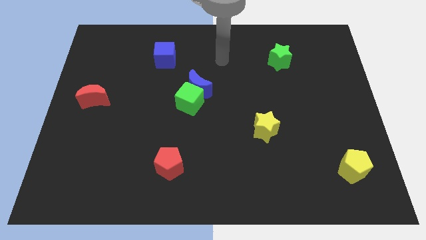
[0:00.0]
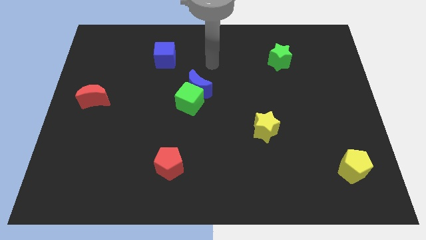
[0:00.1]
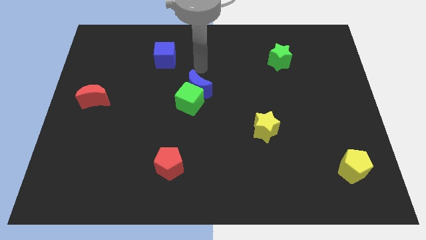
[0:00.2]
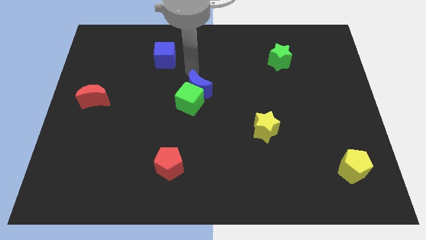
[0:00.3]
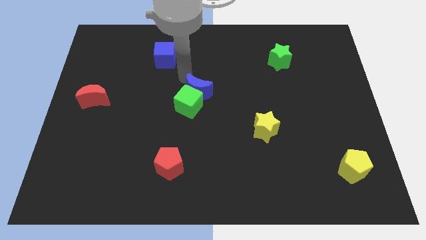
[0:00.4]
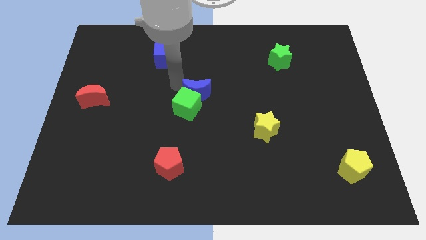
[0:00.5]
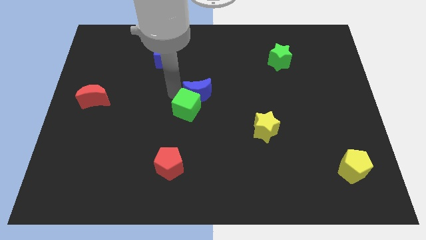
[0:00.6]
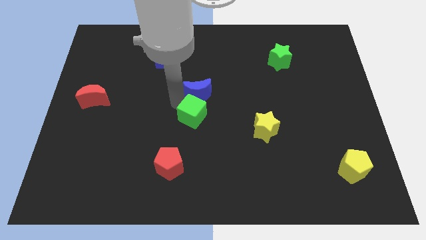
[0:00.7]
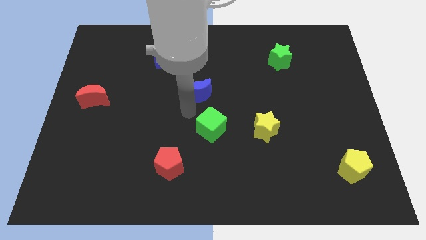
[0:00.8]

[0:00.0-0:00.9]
pull the blue moon apart from the green cube

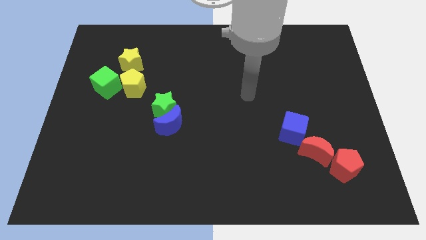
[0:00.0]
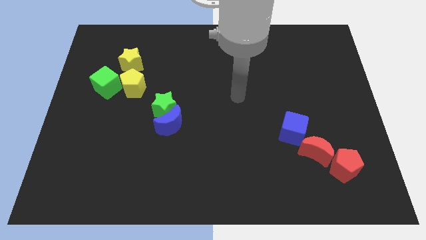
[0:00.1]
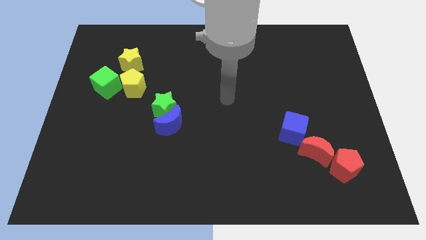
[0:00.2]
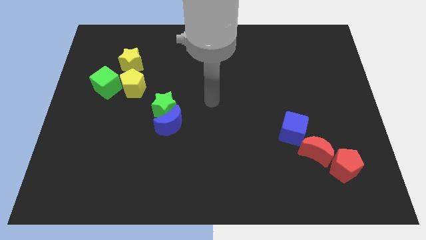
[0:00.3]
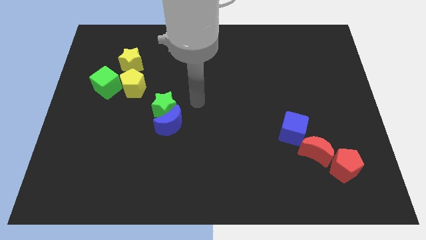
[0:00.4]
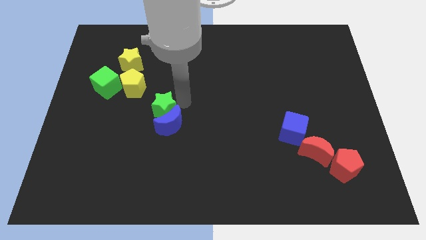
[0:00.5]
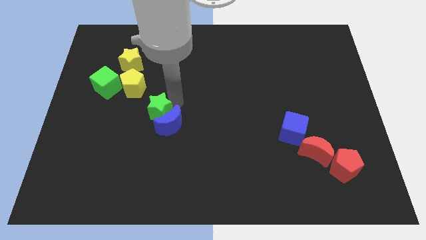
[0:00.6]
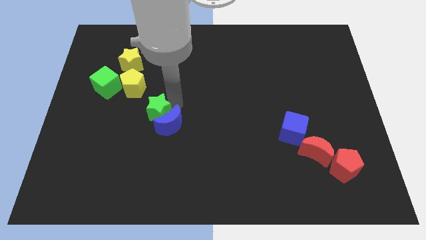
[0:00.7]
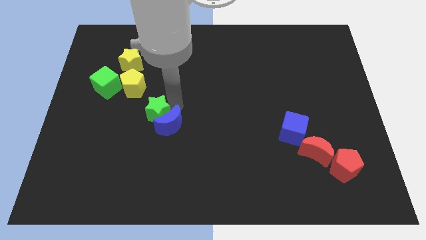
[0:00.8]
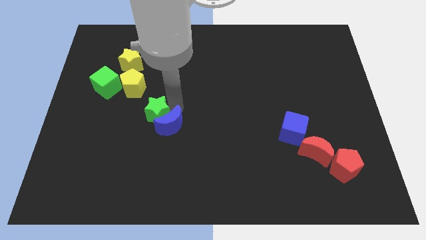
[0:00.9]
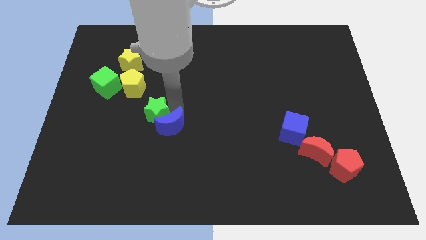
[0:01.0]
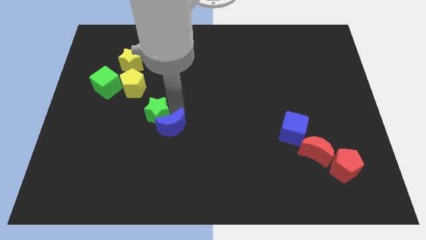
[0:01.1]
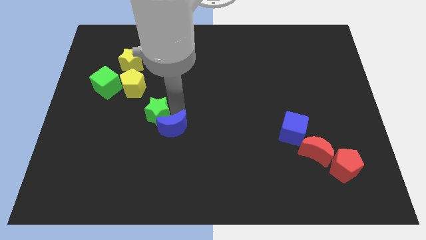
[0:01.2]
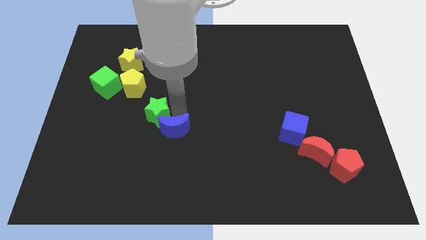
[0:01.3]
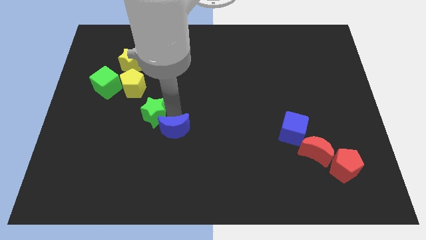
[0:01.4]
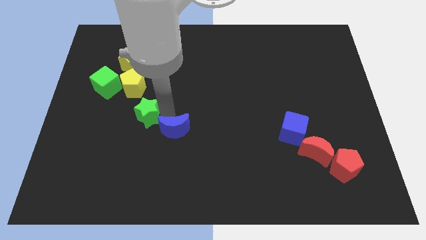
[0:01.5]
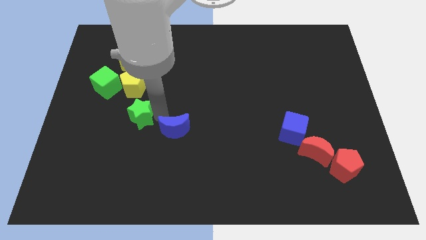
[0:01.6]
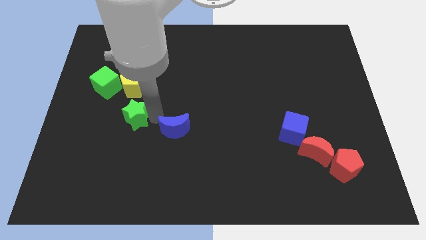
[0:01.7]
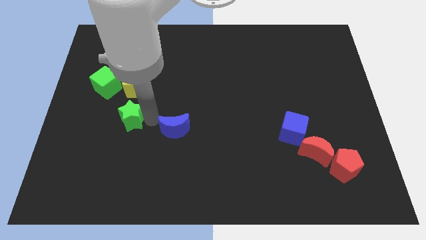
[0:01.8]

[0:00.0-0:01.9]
separate the blue moon from the green star

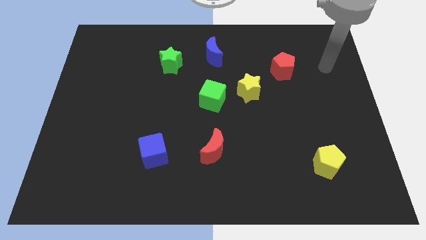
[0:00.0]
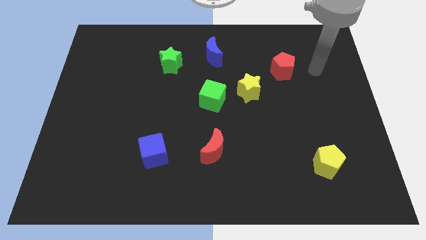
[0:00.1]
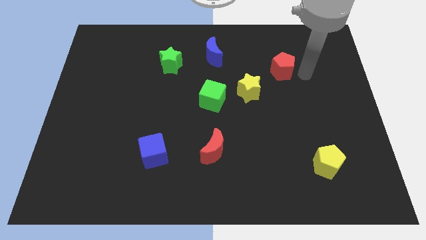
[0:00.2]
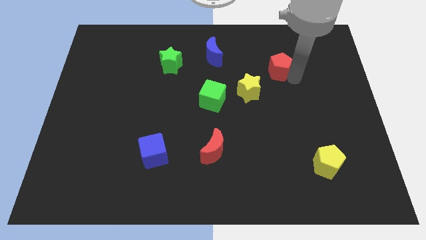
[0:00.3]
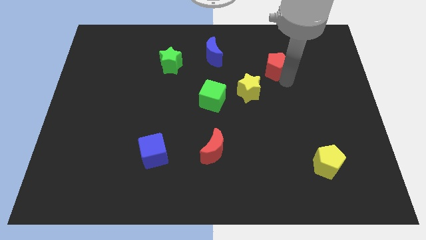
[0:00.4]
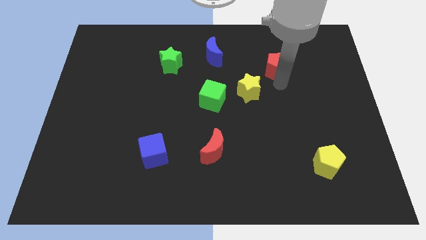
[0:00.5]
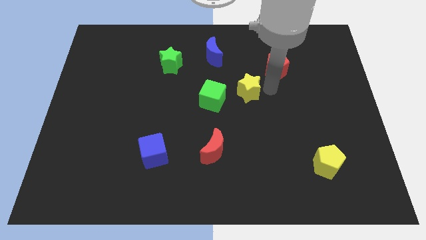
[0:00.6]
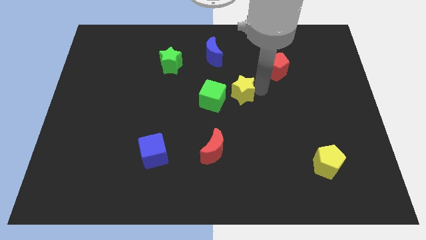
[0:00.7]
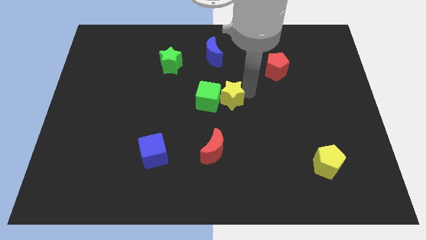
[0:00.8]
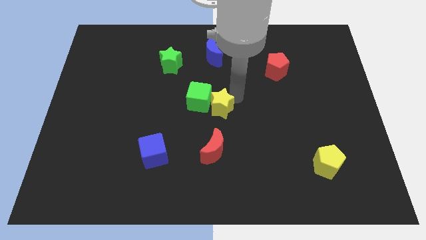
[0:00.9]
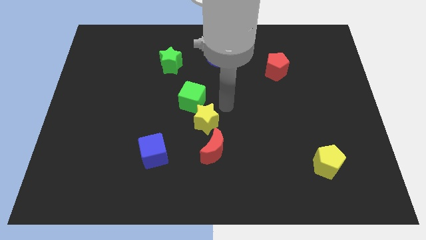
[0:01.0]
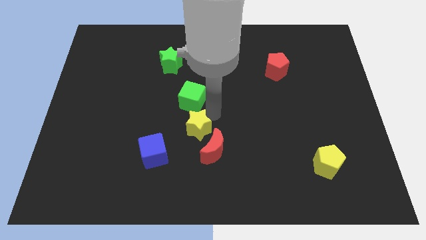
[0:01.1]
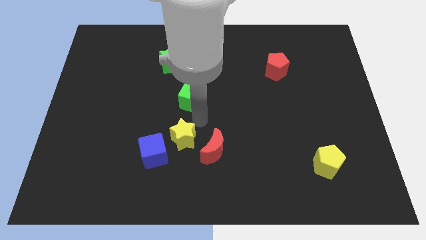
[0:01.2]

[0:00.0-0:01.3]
move the green cube away from the yellow star

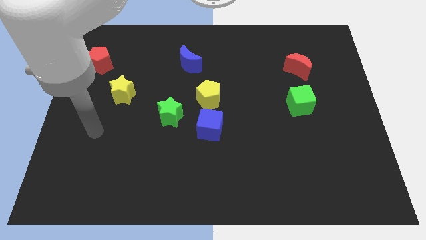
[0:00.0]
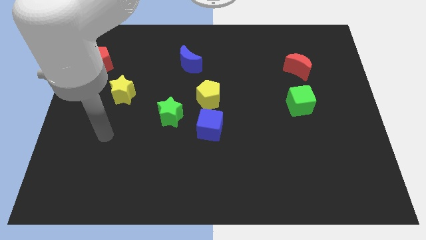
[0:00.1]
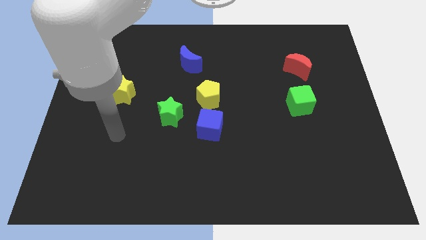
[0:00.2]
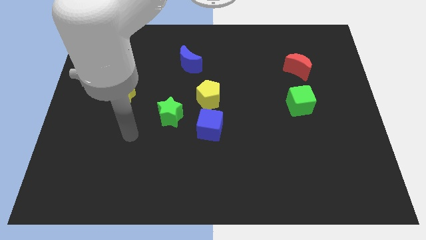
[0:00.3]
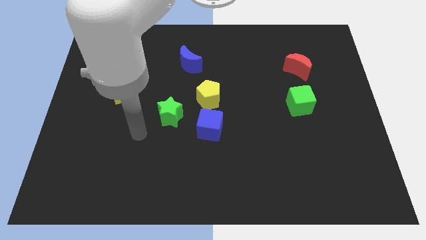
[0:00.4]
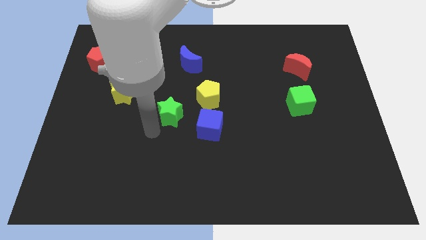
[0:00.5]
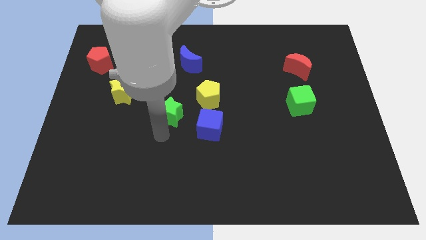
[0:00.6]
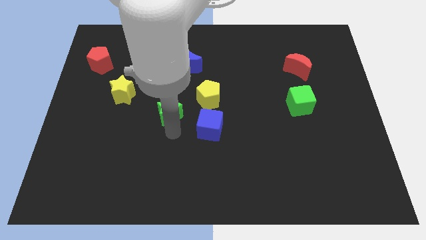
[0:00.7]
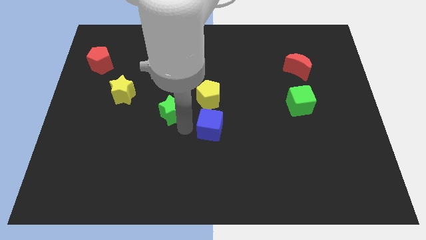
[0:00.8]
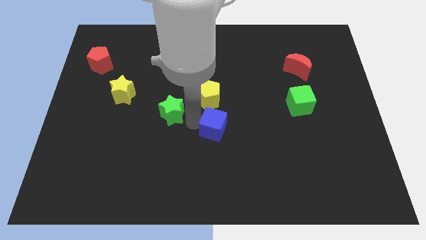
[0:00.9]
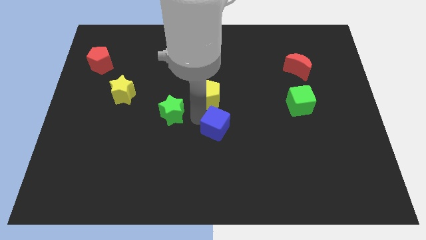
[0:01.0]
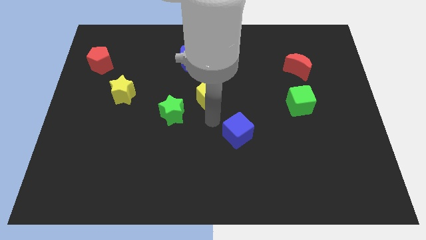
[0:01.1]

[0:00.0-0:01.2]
pull the yellow pentagon apart from the blue cube

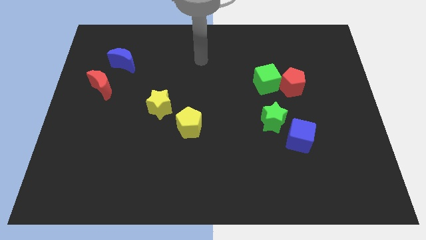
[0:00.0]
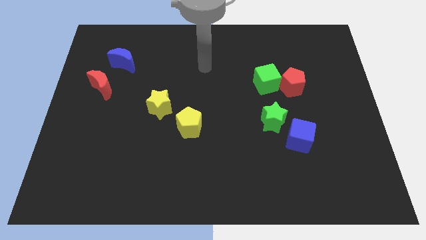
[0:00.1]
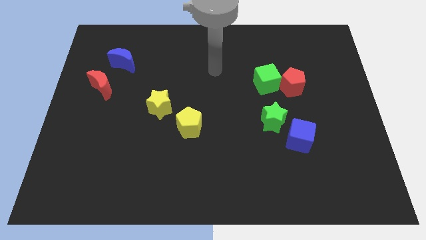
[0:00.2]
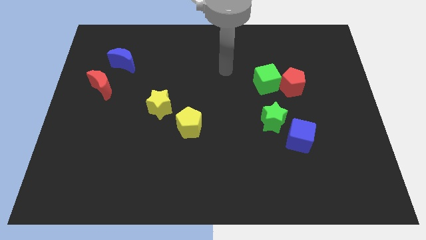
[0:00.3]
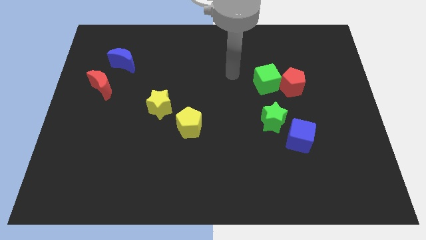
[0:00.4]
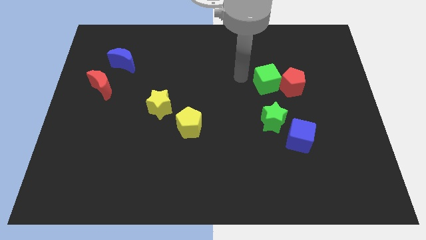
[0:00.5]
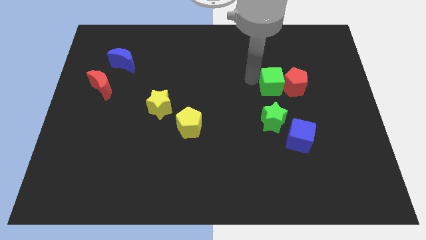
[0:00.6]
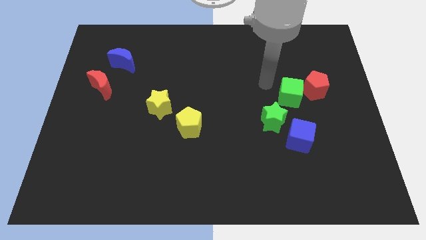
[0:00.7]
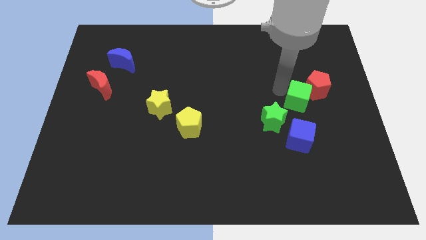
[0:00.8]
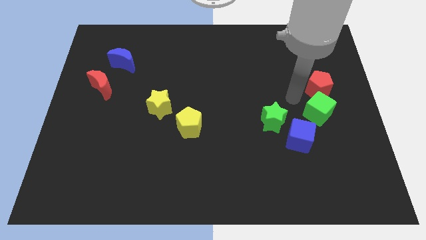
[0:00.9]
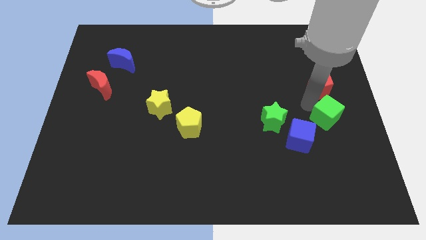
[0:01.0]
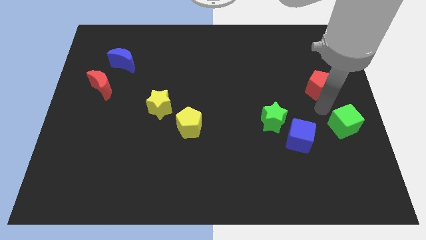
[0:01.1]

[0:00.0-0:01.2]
separate the red pentagon from the green cube

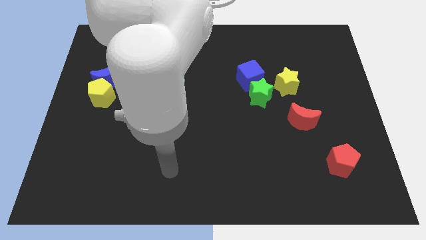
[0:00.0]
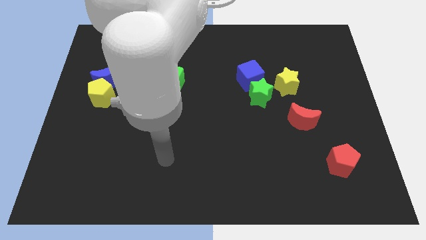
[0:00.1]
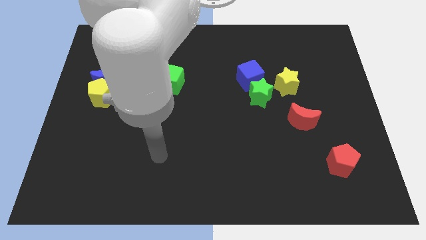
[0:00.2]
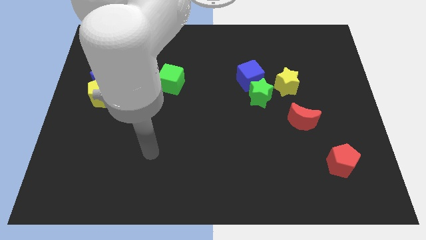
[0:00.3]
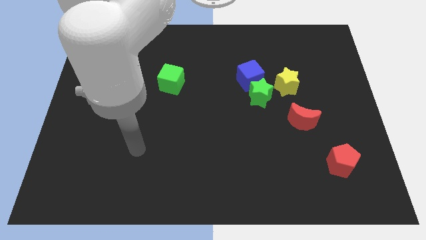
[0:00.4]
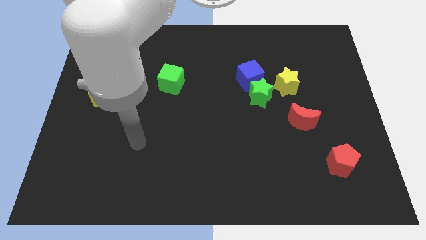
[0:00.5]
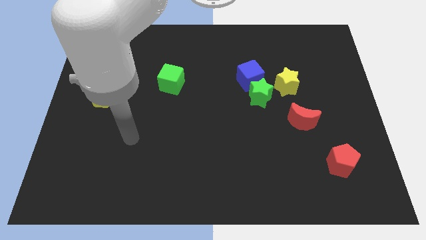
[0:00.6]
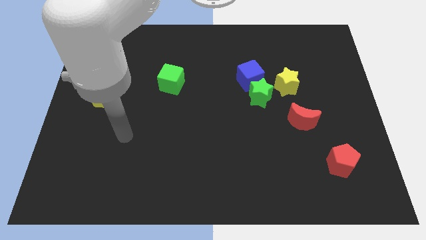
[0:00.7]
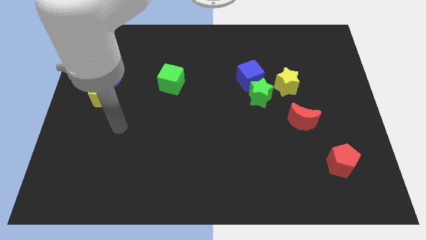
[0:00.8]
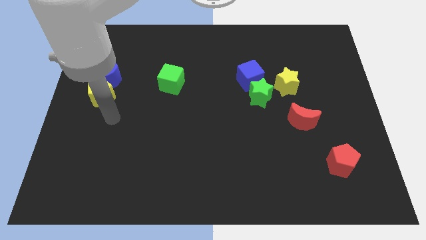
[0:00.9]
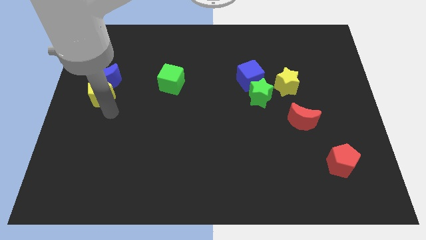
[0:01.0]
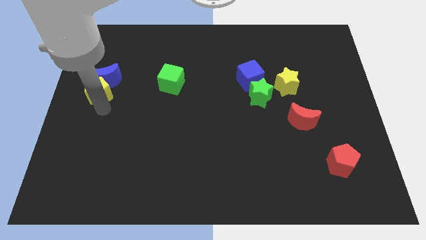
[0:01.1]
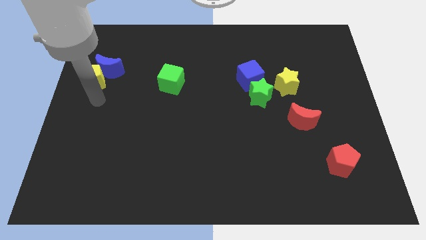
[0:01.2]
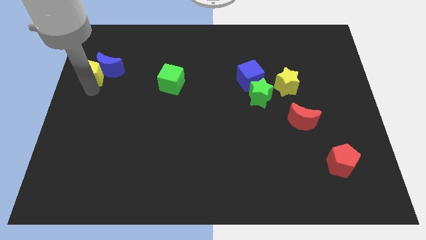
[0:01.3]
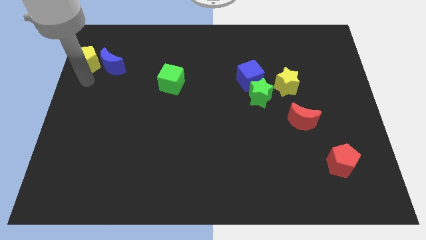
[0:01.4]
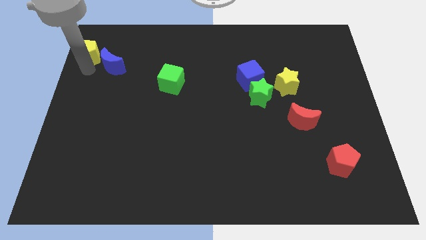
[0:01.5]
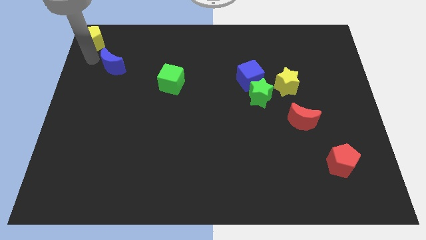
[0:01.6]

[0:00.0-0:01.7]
separate the blue moon from the yellow pentagon

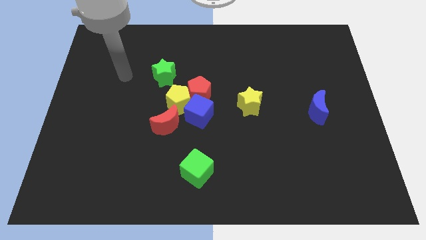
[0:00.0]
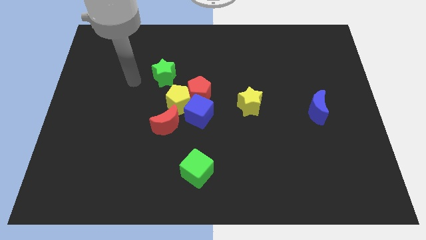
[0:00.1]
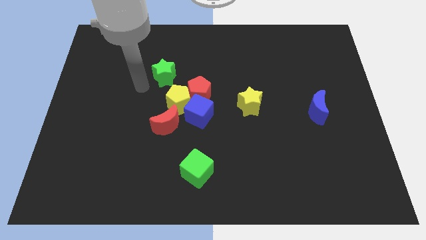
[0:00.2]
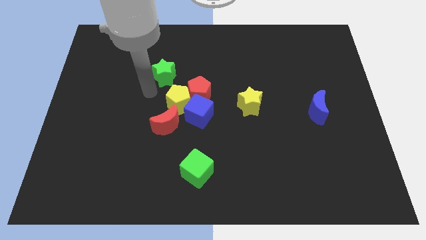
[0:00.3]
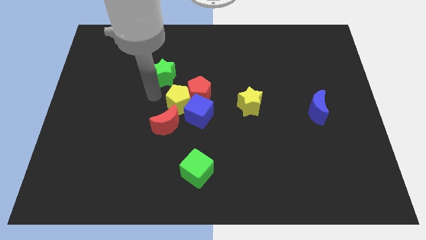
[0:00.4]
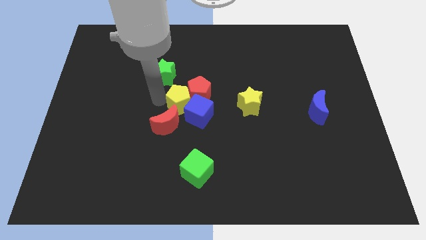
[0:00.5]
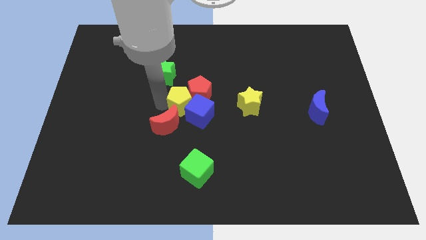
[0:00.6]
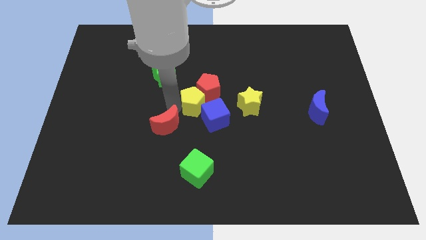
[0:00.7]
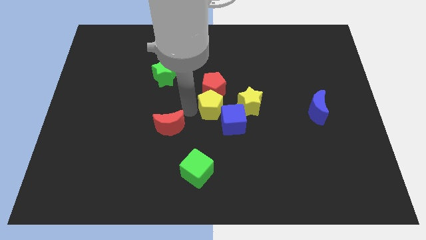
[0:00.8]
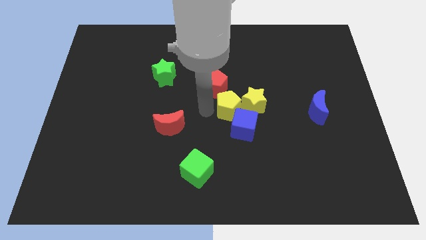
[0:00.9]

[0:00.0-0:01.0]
separate the red pentagon from the yellow pentagon and blue cube
